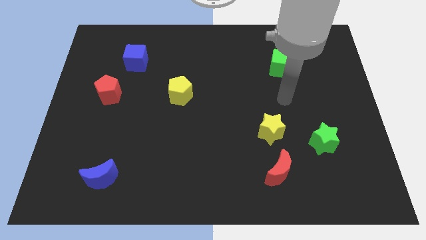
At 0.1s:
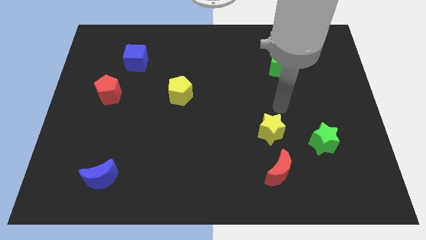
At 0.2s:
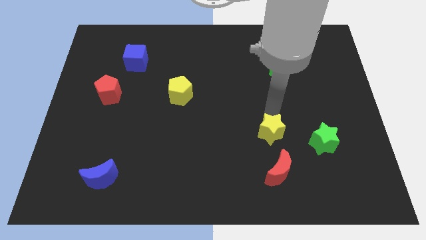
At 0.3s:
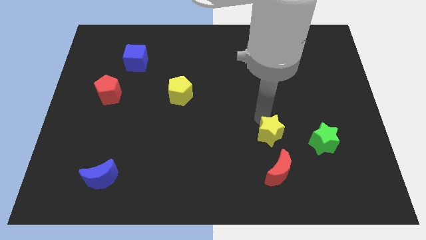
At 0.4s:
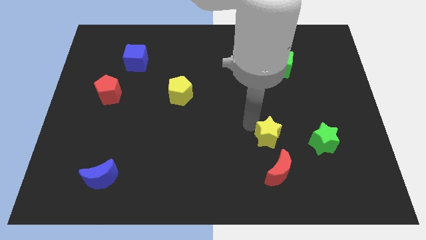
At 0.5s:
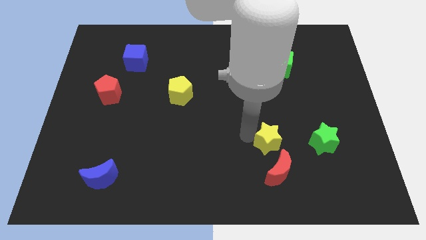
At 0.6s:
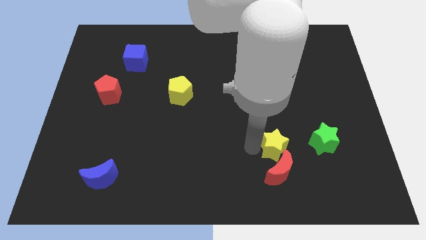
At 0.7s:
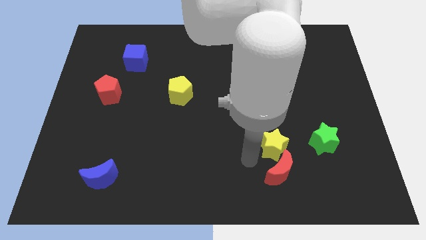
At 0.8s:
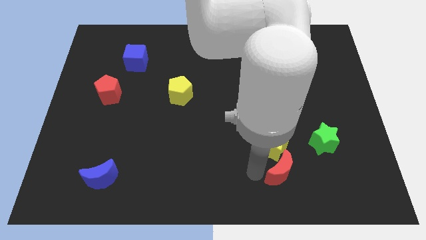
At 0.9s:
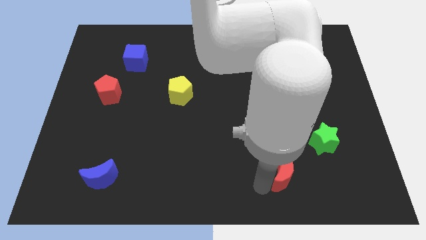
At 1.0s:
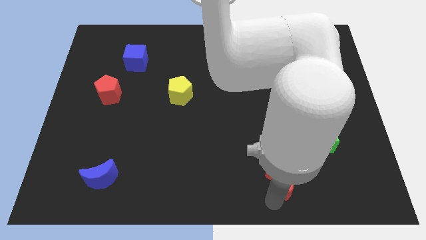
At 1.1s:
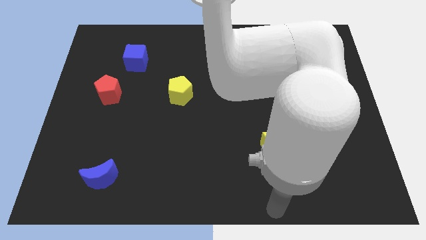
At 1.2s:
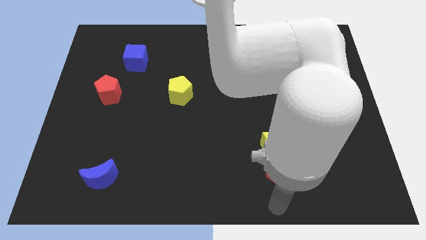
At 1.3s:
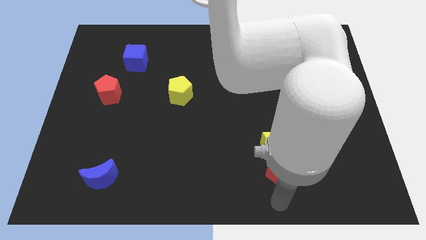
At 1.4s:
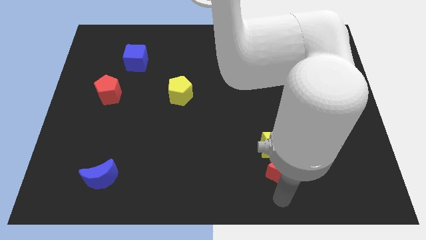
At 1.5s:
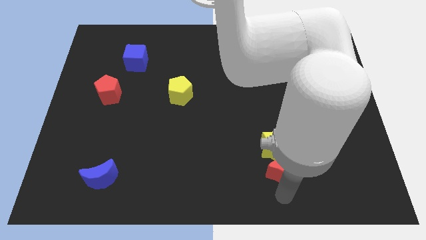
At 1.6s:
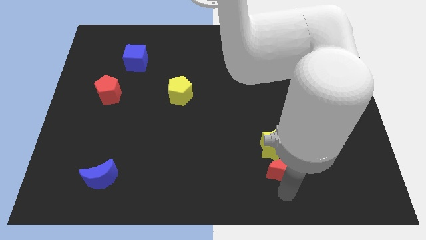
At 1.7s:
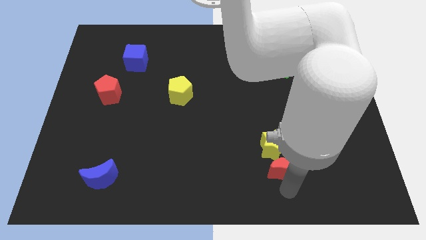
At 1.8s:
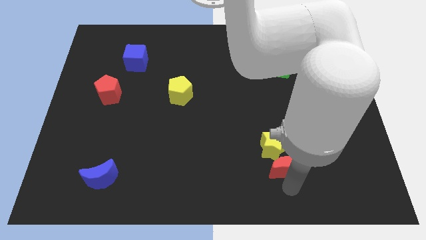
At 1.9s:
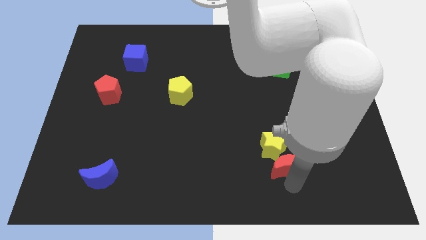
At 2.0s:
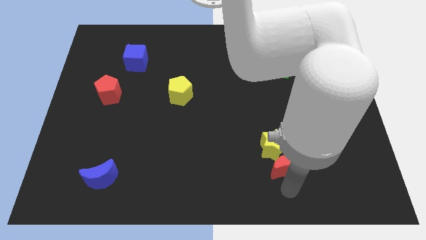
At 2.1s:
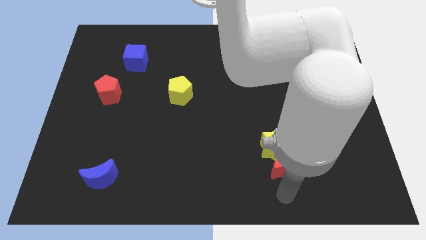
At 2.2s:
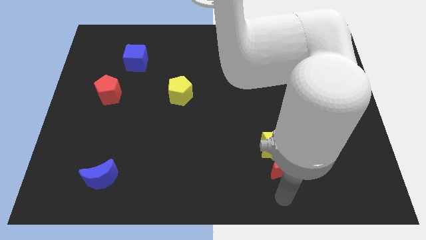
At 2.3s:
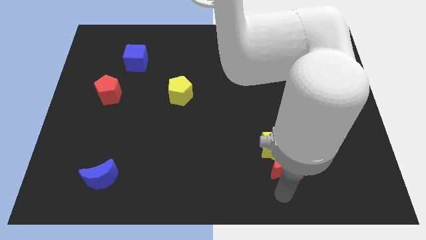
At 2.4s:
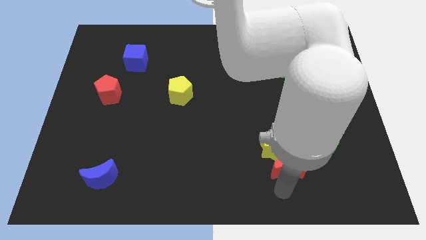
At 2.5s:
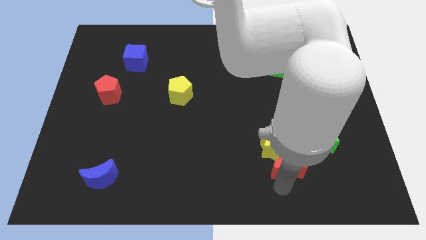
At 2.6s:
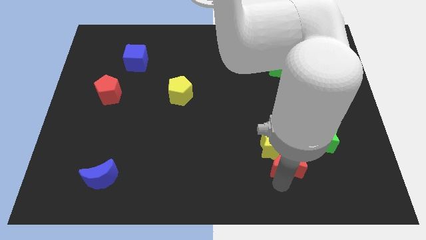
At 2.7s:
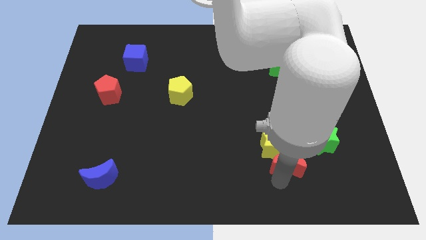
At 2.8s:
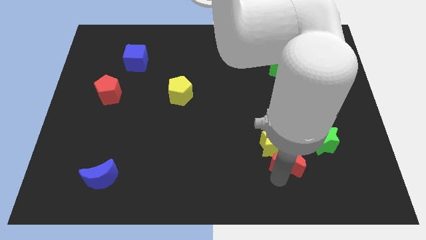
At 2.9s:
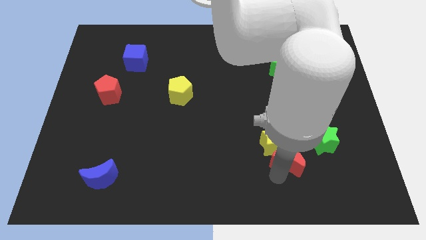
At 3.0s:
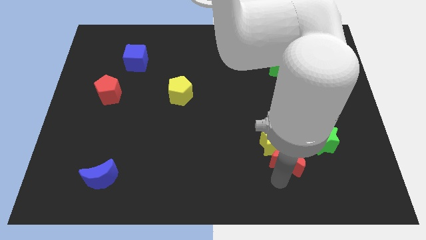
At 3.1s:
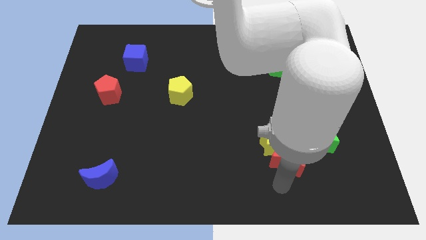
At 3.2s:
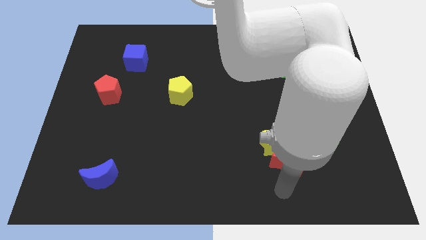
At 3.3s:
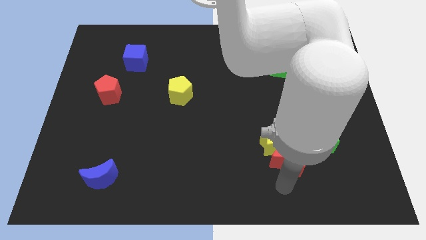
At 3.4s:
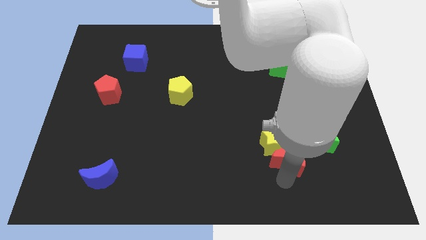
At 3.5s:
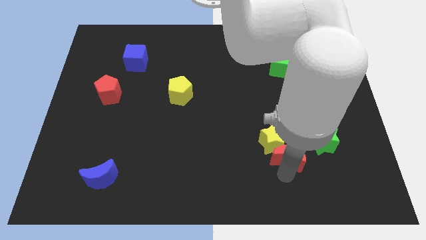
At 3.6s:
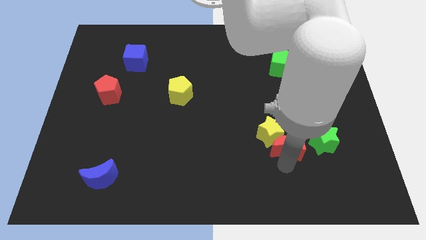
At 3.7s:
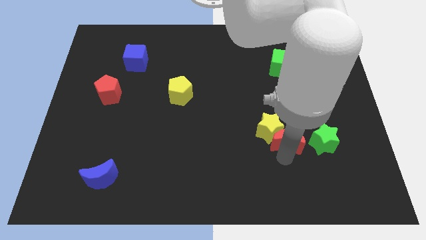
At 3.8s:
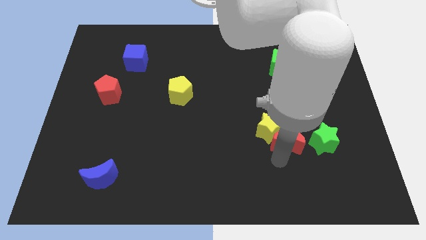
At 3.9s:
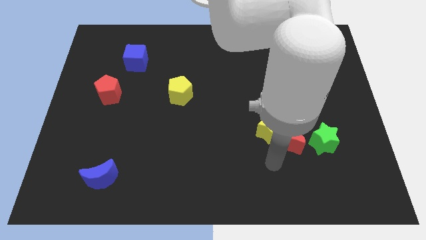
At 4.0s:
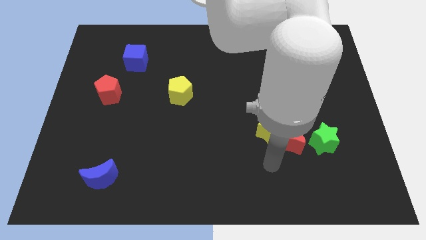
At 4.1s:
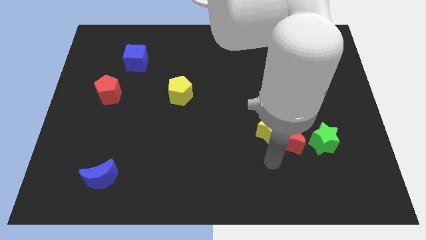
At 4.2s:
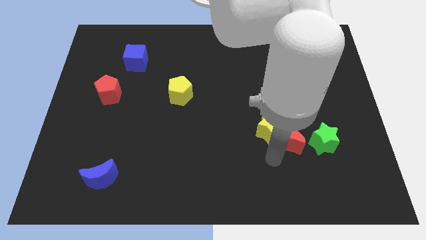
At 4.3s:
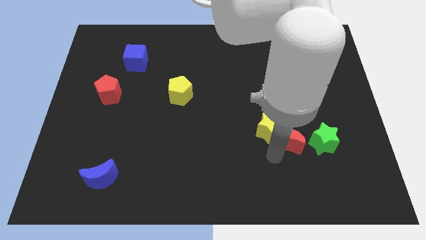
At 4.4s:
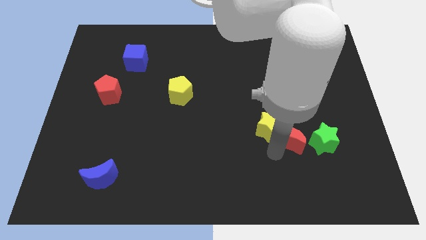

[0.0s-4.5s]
slide the red moon somewhat up and then to the right

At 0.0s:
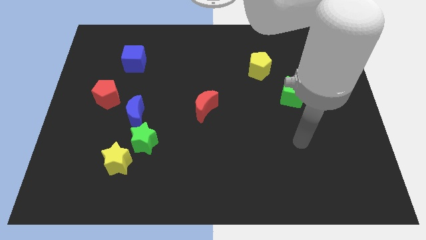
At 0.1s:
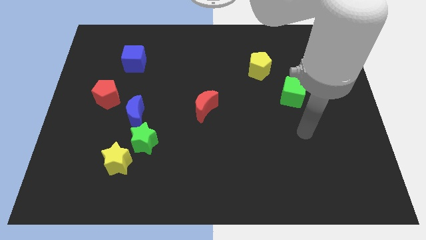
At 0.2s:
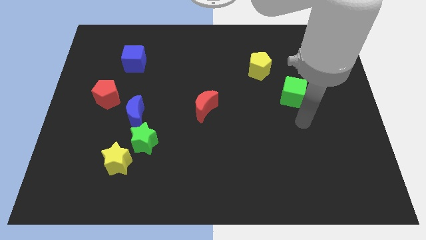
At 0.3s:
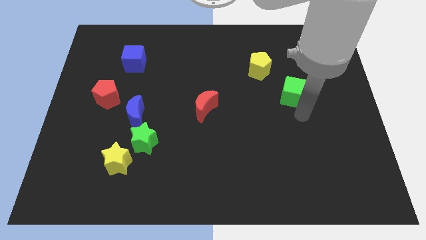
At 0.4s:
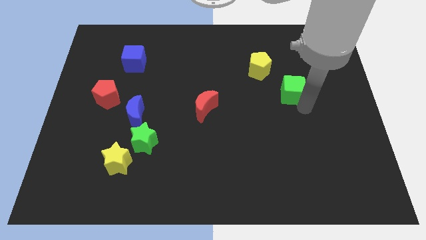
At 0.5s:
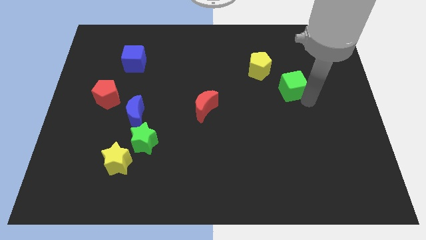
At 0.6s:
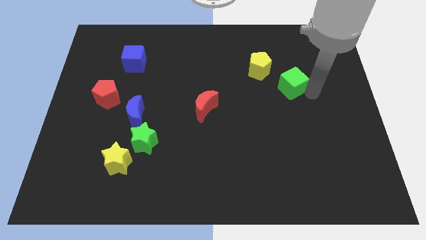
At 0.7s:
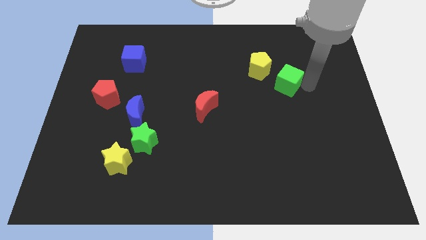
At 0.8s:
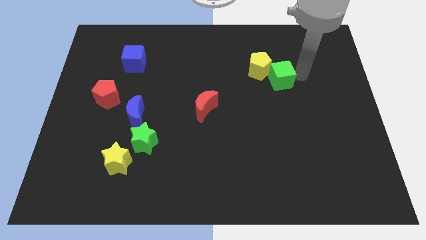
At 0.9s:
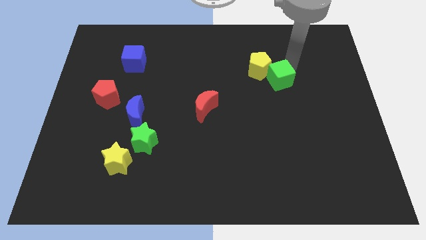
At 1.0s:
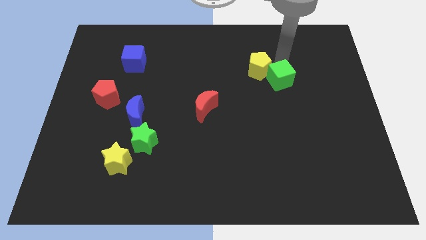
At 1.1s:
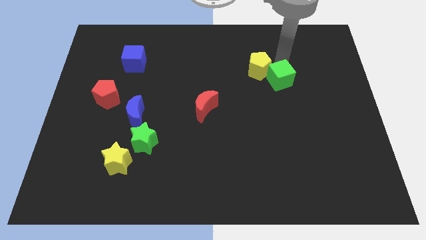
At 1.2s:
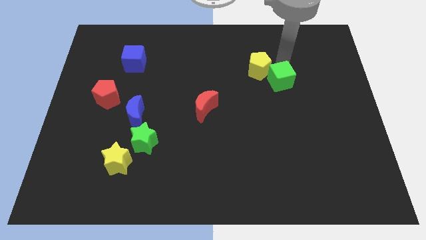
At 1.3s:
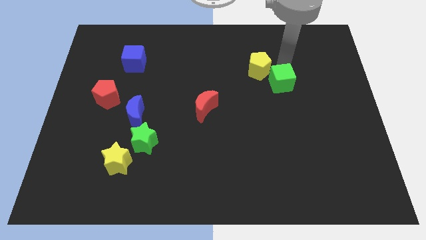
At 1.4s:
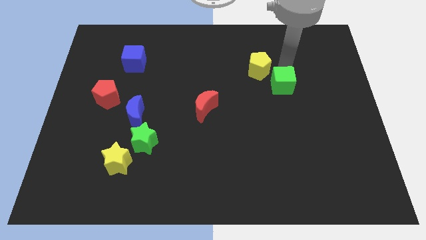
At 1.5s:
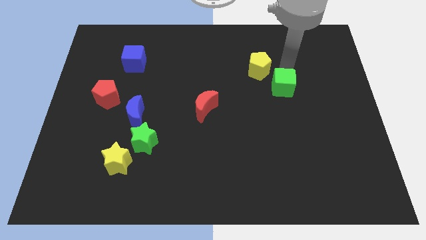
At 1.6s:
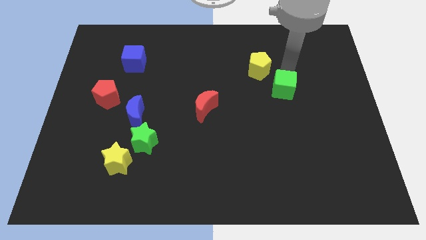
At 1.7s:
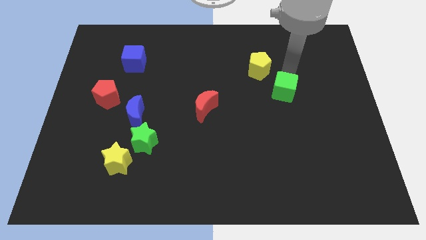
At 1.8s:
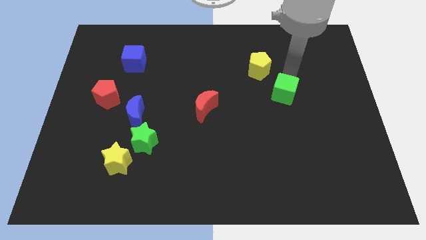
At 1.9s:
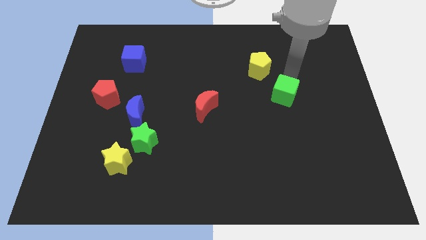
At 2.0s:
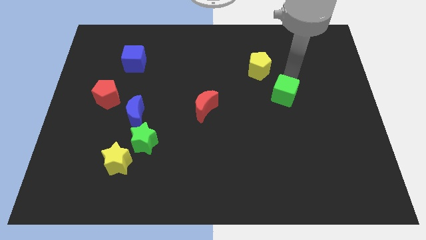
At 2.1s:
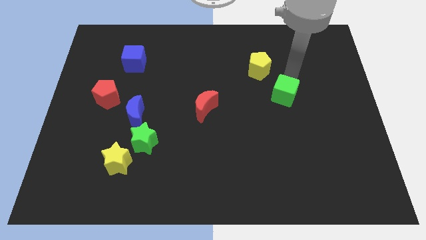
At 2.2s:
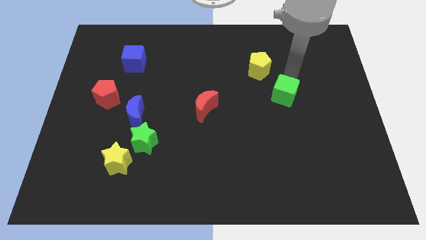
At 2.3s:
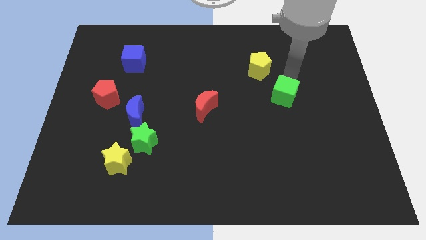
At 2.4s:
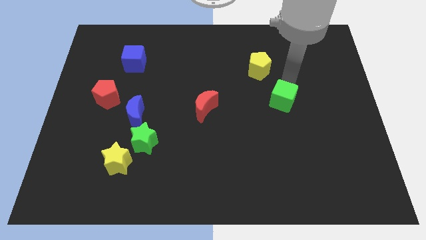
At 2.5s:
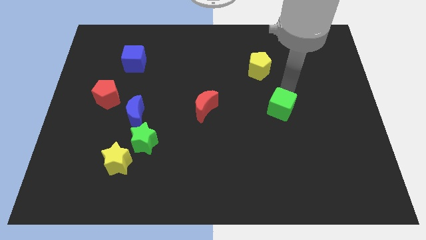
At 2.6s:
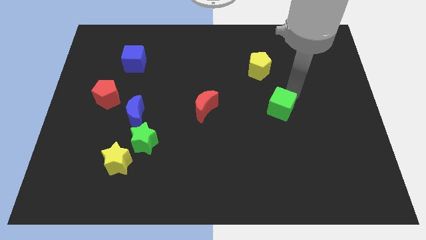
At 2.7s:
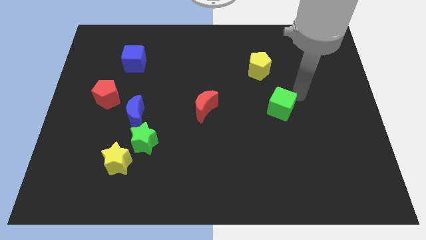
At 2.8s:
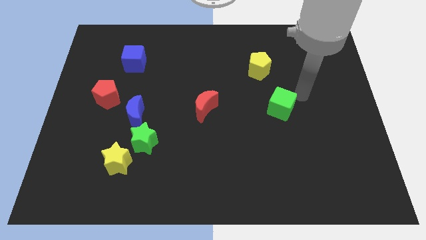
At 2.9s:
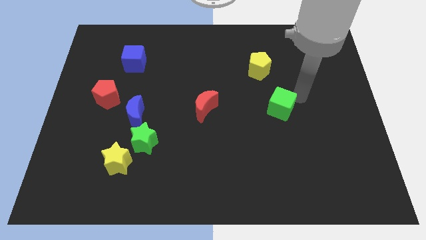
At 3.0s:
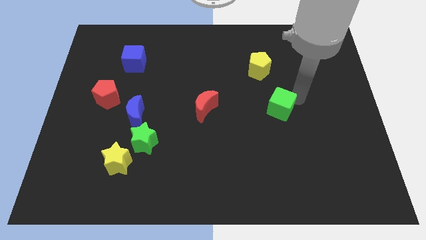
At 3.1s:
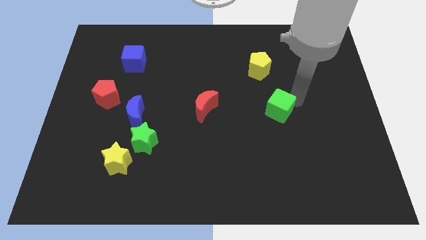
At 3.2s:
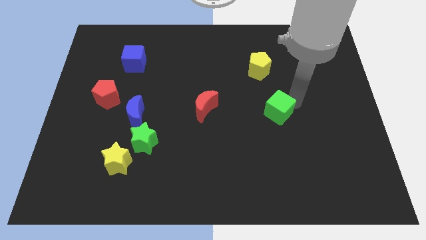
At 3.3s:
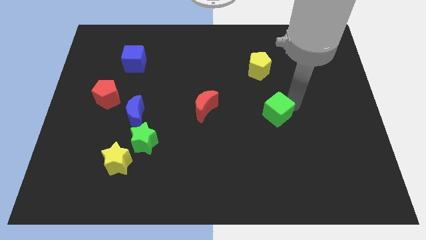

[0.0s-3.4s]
push the green cube down and then left slightly

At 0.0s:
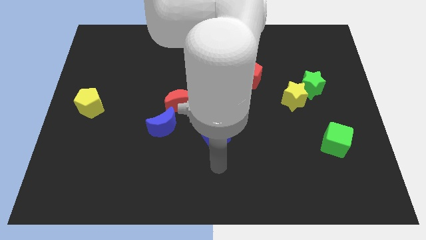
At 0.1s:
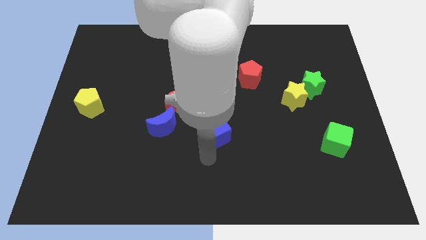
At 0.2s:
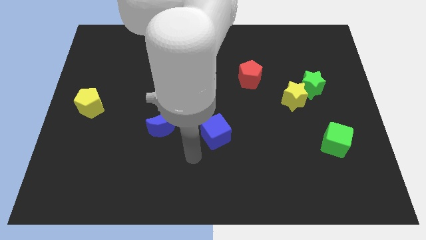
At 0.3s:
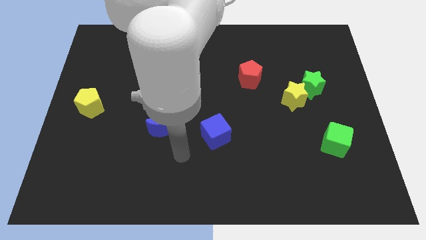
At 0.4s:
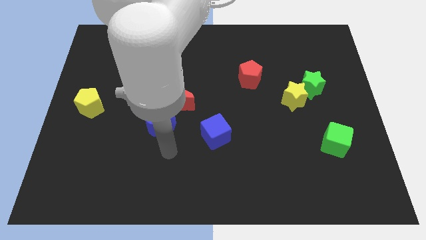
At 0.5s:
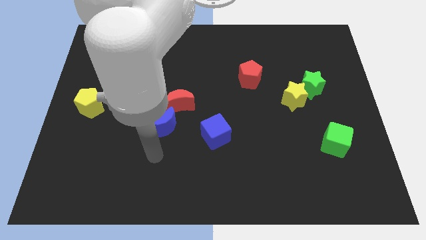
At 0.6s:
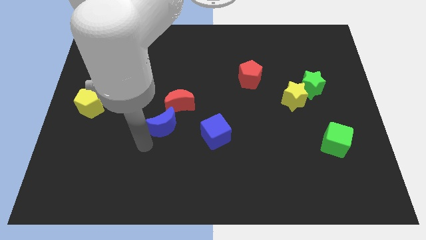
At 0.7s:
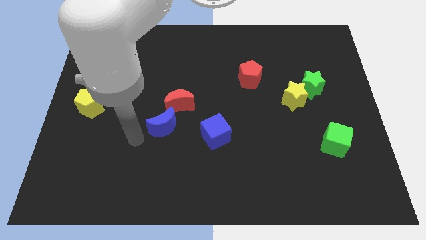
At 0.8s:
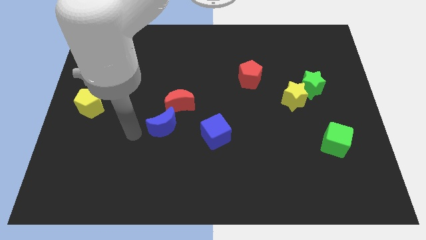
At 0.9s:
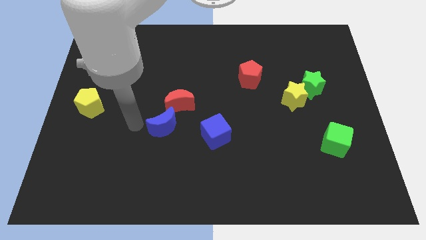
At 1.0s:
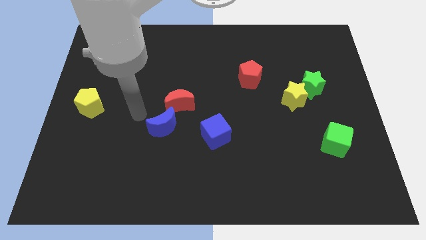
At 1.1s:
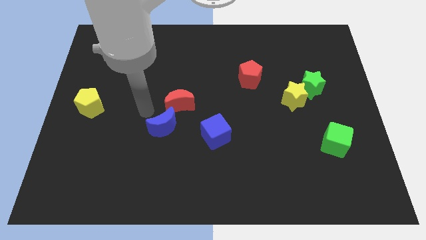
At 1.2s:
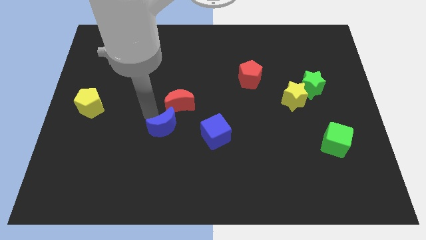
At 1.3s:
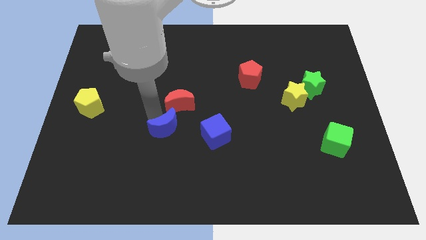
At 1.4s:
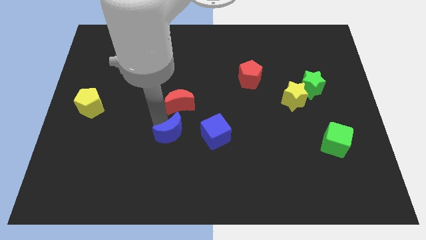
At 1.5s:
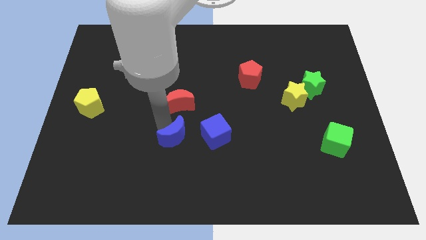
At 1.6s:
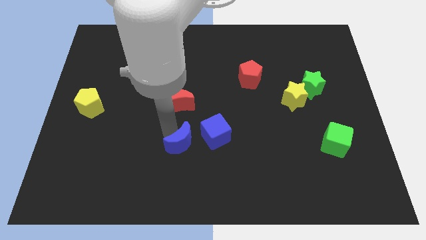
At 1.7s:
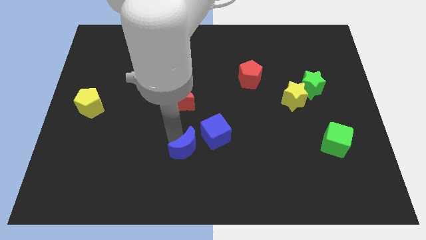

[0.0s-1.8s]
push the blue moon downwards and to the right slightly
